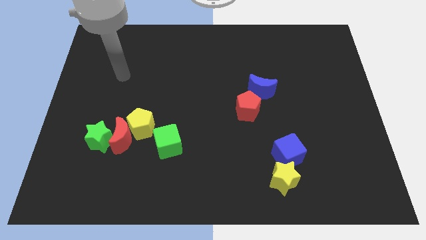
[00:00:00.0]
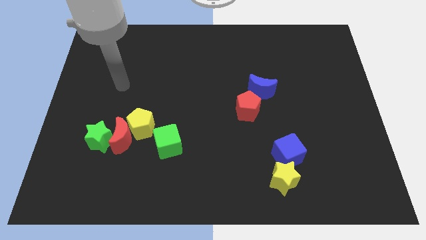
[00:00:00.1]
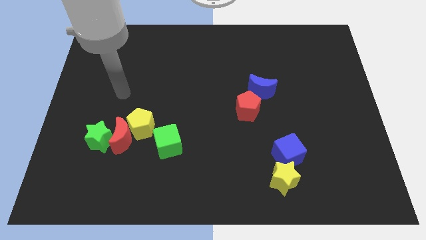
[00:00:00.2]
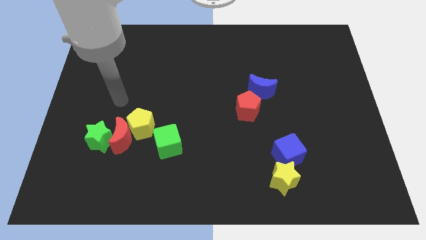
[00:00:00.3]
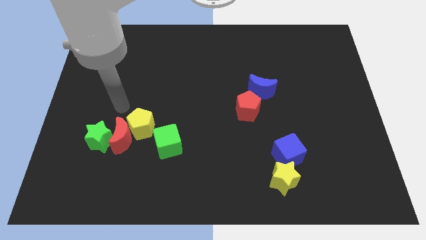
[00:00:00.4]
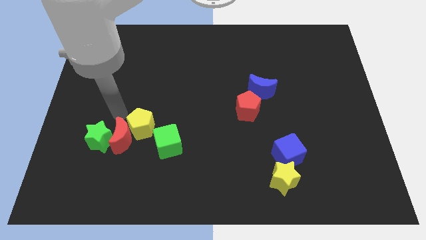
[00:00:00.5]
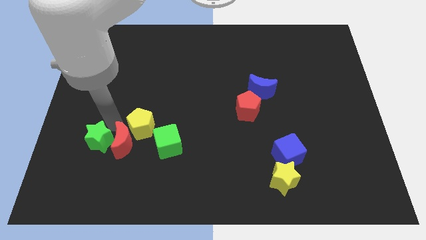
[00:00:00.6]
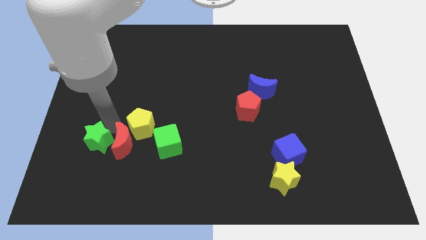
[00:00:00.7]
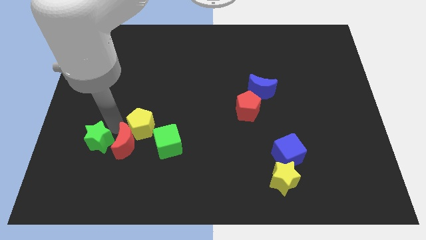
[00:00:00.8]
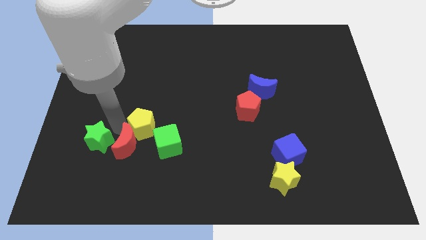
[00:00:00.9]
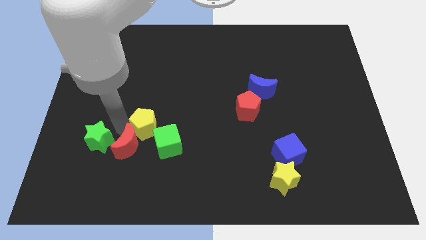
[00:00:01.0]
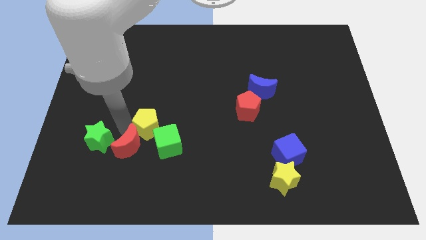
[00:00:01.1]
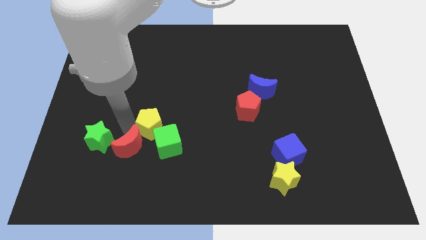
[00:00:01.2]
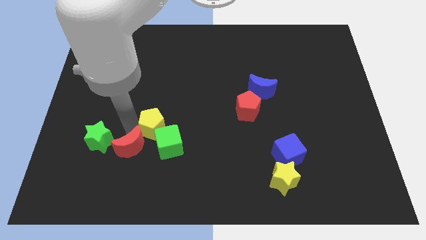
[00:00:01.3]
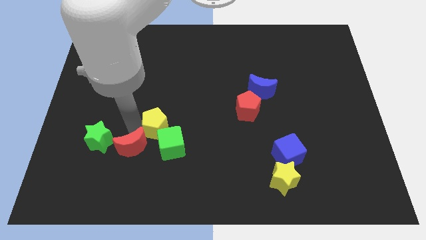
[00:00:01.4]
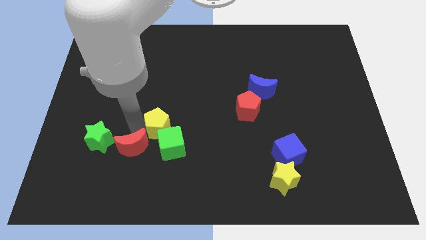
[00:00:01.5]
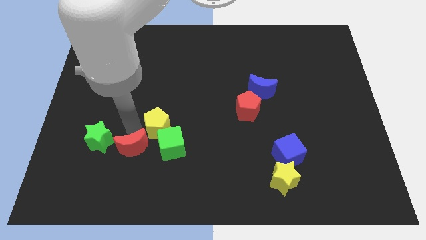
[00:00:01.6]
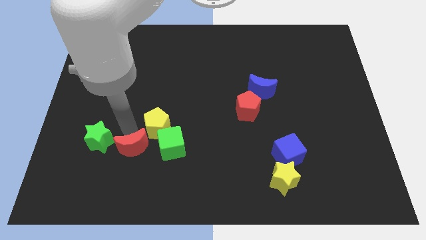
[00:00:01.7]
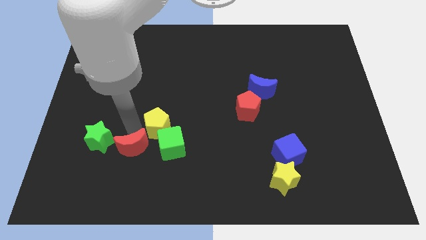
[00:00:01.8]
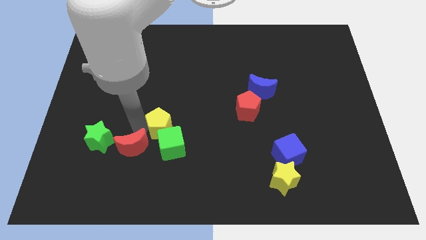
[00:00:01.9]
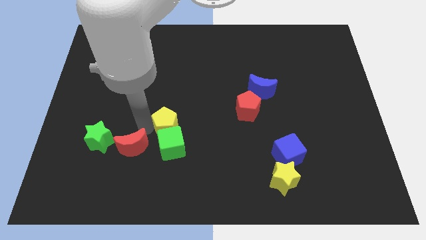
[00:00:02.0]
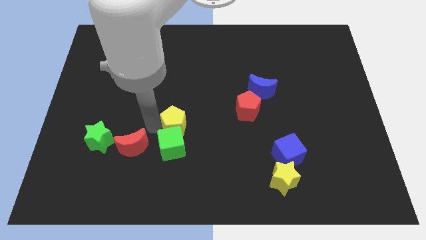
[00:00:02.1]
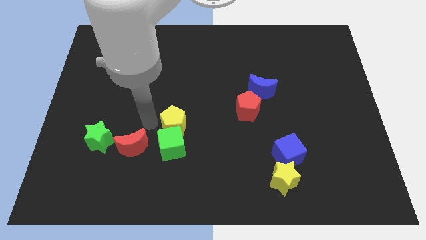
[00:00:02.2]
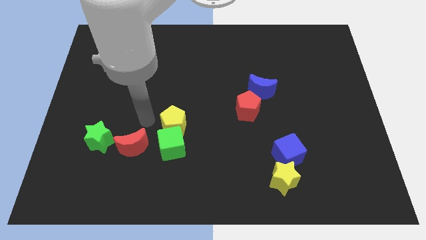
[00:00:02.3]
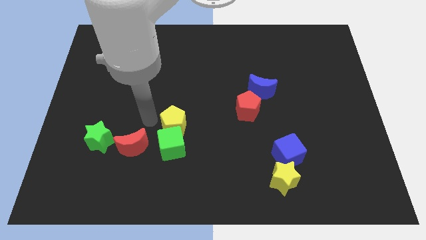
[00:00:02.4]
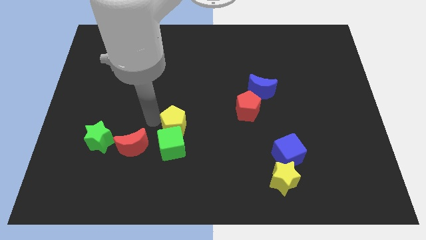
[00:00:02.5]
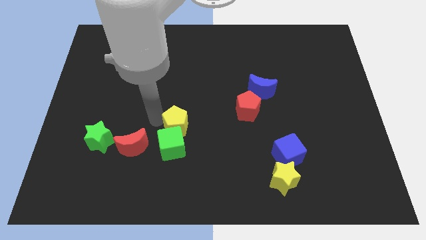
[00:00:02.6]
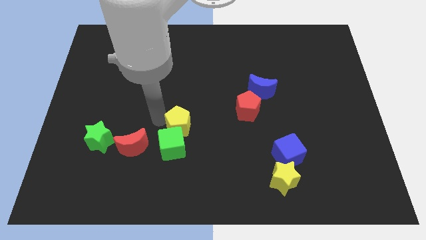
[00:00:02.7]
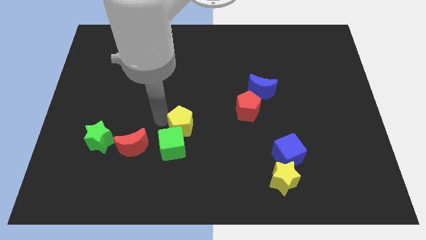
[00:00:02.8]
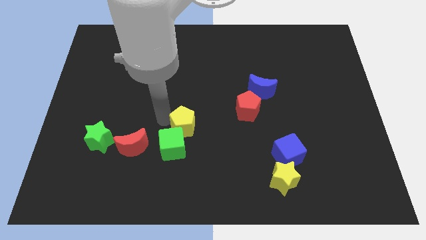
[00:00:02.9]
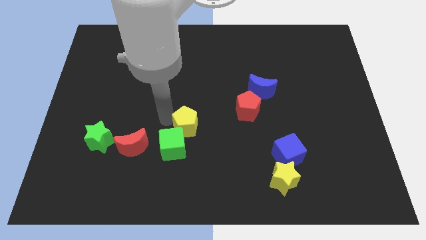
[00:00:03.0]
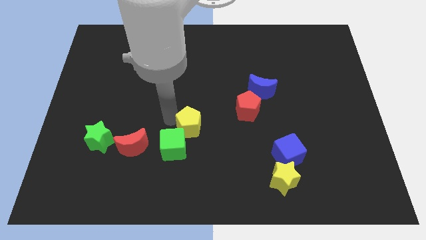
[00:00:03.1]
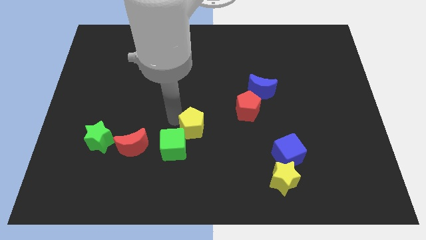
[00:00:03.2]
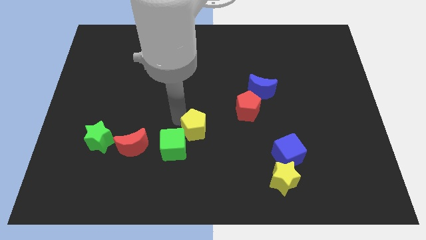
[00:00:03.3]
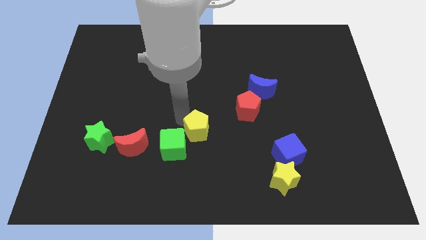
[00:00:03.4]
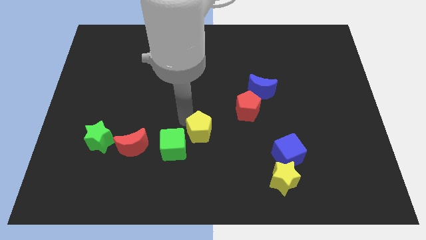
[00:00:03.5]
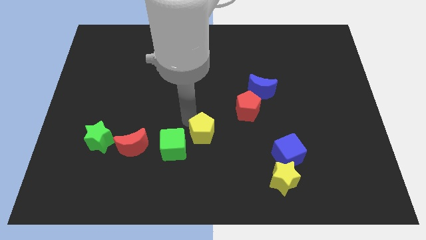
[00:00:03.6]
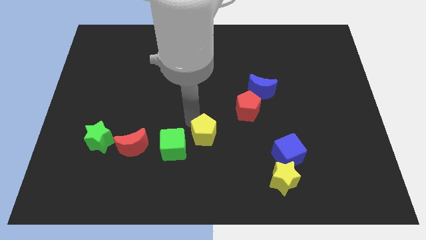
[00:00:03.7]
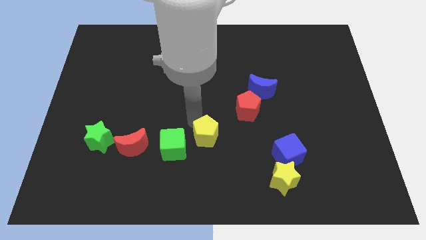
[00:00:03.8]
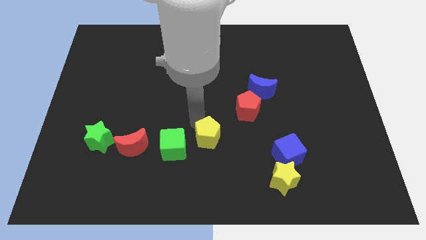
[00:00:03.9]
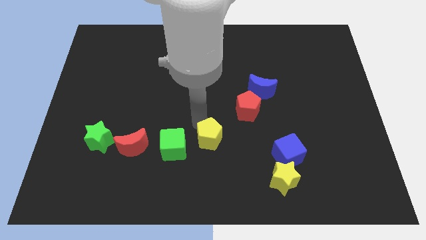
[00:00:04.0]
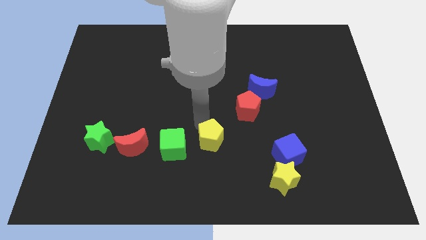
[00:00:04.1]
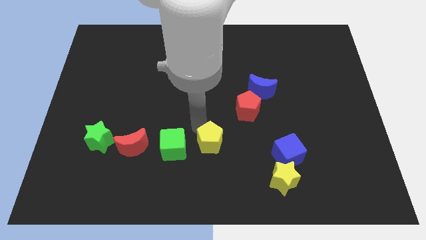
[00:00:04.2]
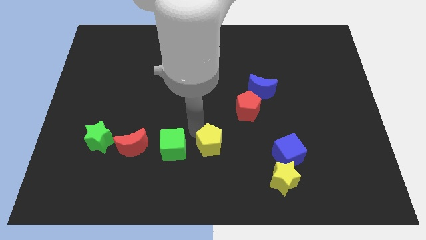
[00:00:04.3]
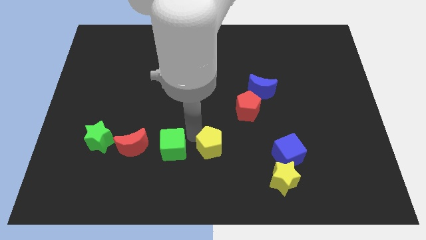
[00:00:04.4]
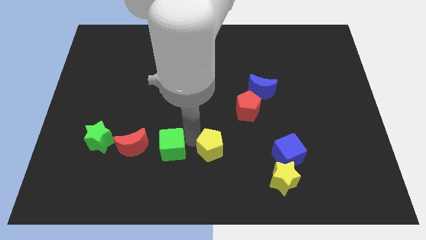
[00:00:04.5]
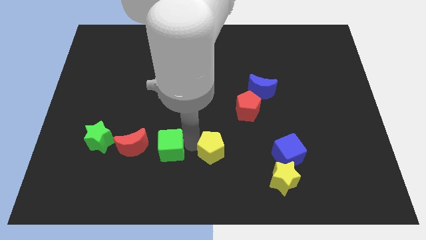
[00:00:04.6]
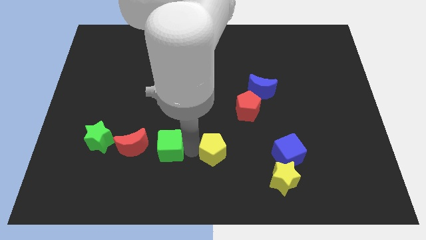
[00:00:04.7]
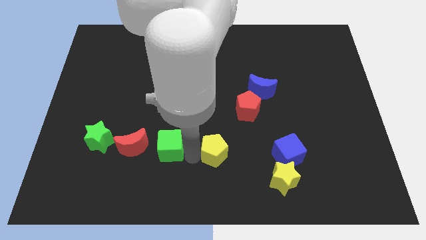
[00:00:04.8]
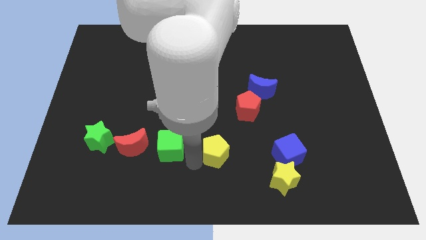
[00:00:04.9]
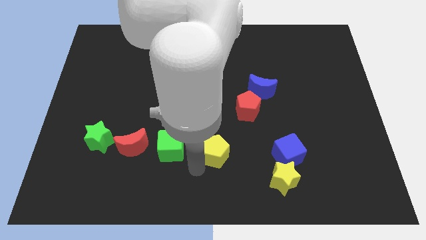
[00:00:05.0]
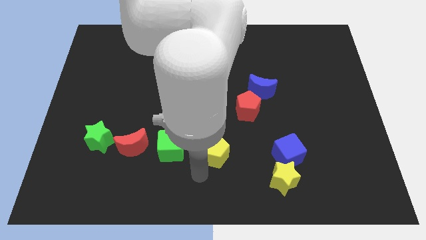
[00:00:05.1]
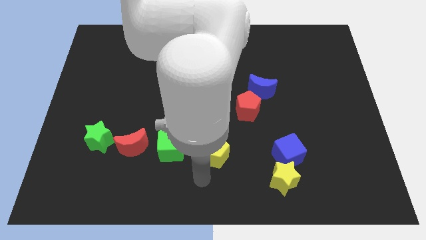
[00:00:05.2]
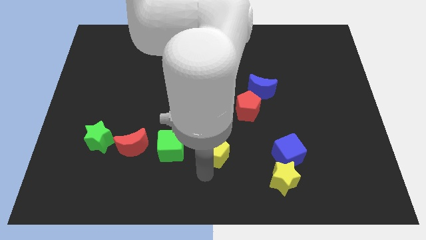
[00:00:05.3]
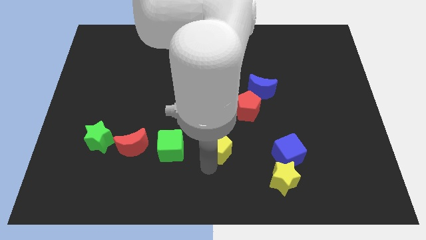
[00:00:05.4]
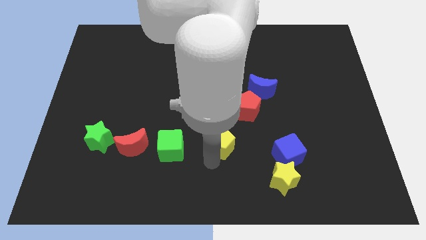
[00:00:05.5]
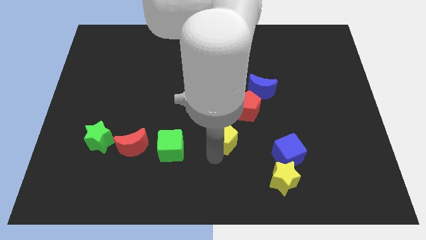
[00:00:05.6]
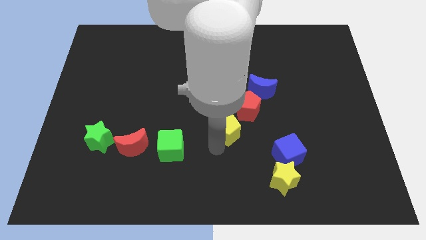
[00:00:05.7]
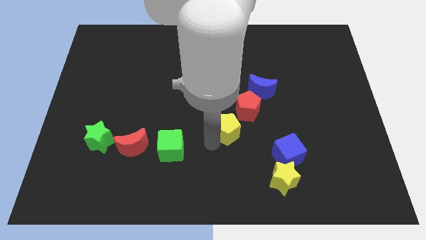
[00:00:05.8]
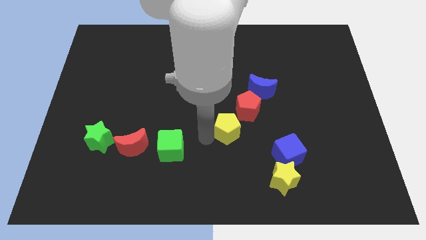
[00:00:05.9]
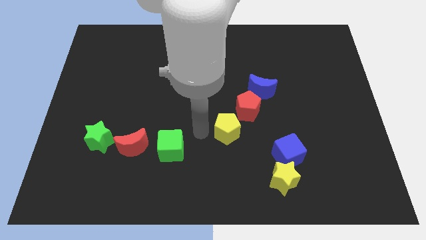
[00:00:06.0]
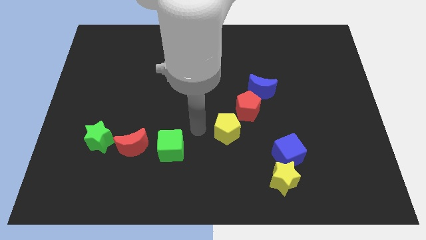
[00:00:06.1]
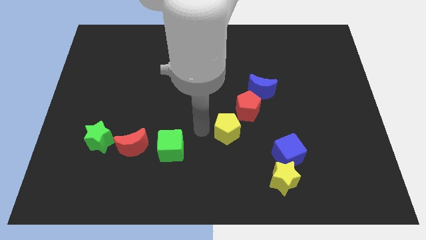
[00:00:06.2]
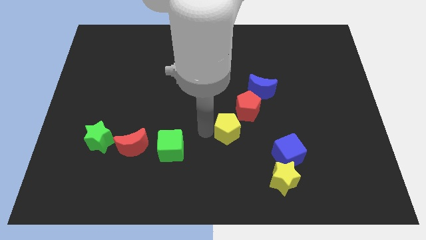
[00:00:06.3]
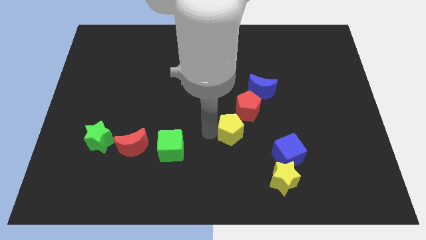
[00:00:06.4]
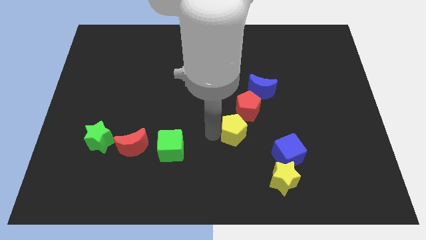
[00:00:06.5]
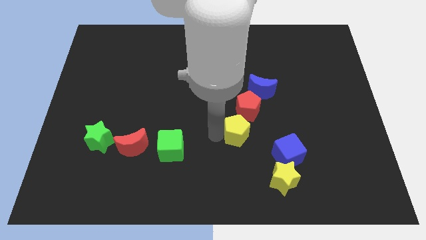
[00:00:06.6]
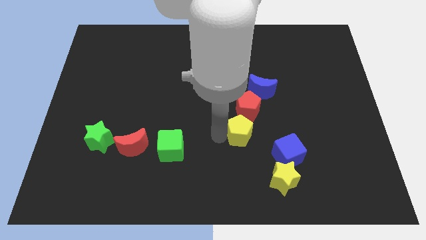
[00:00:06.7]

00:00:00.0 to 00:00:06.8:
push the yellow pentagon to the top left of the blue cube

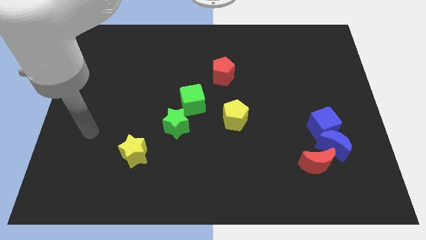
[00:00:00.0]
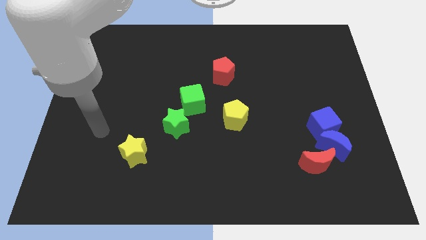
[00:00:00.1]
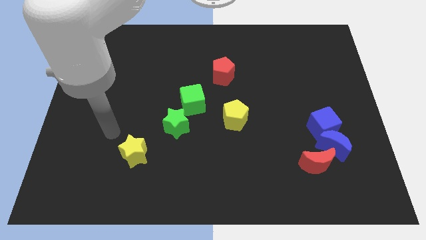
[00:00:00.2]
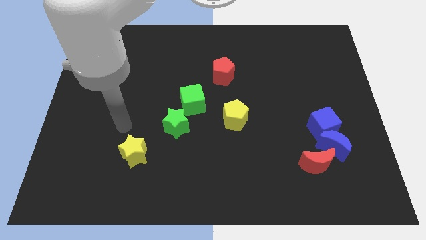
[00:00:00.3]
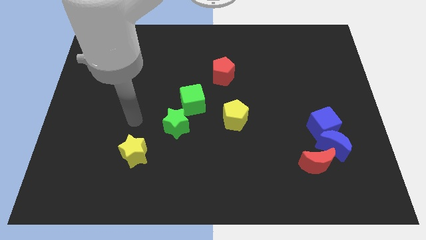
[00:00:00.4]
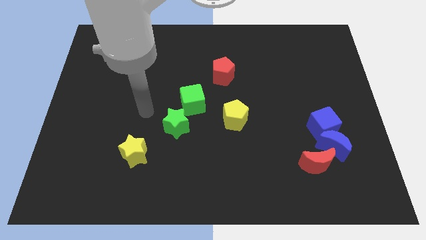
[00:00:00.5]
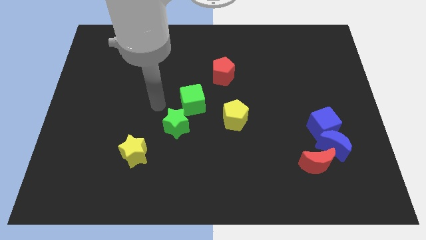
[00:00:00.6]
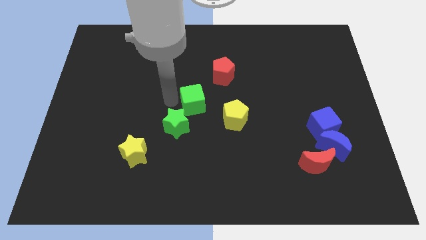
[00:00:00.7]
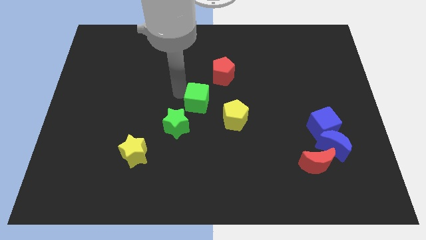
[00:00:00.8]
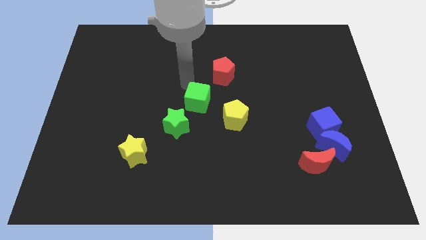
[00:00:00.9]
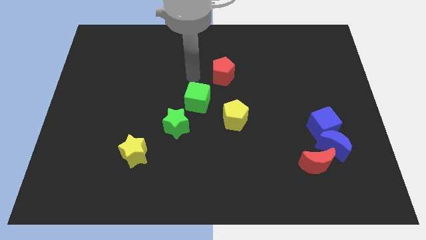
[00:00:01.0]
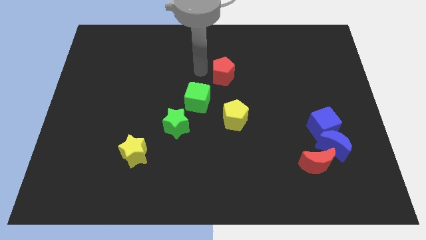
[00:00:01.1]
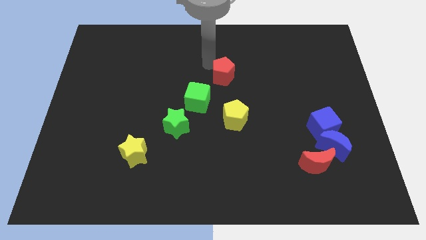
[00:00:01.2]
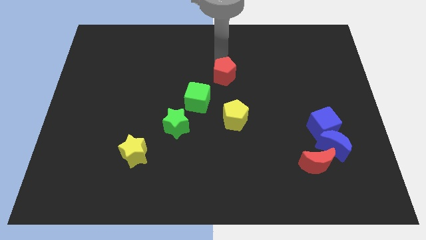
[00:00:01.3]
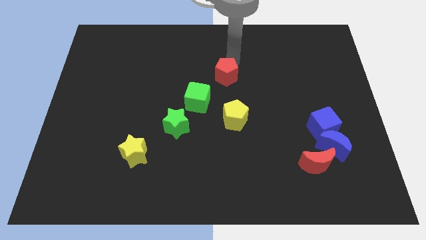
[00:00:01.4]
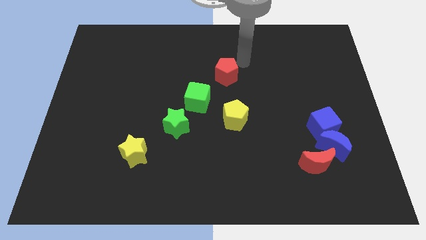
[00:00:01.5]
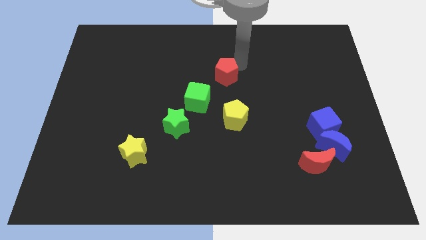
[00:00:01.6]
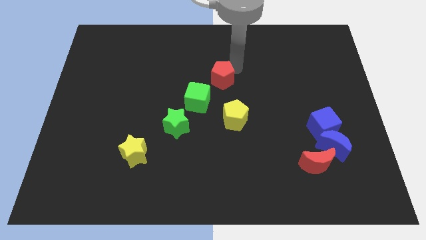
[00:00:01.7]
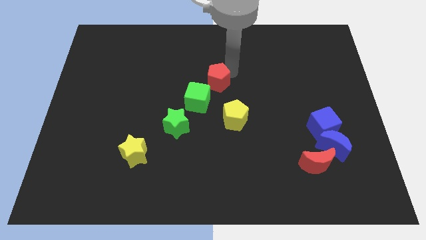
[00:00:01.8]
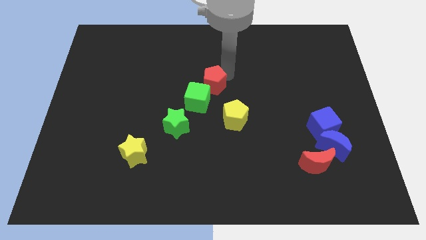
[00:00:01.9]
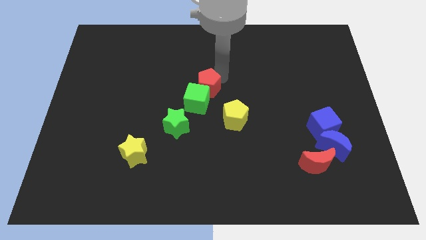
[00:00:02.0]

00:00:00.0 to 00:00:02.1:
slide the red pentagon diagonally up and to the left of the yellow pentagon
